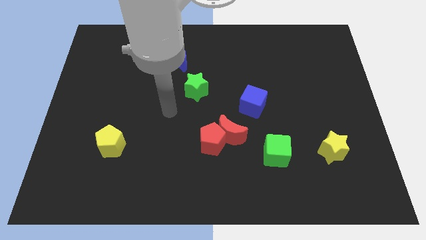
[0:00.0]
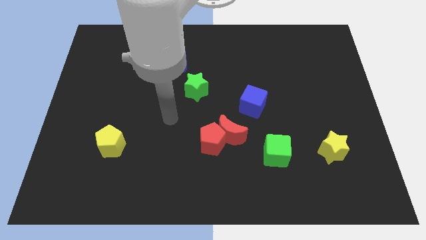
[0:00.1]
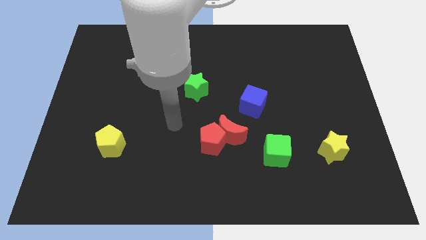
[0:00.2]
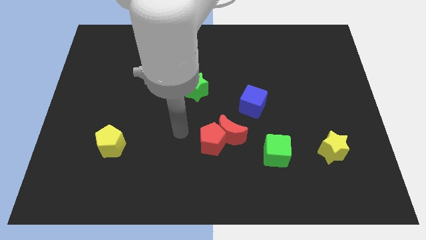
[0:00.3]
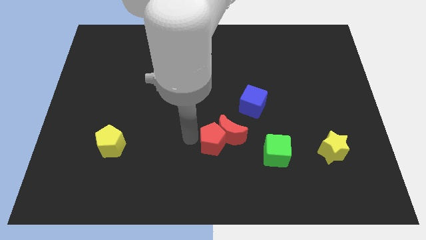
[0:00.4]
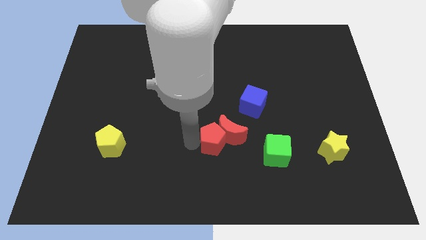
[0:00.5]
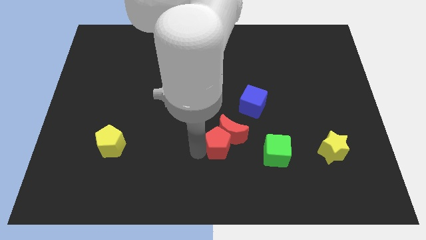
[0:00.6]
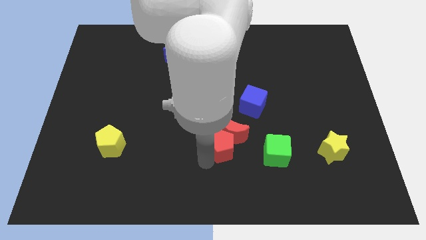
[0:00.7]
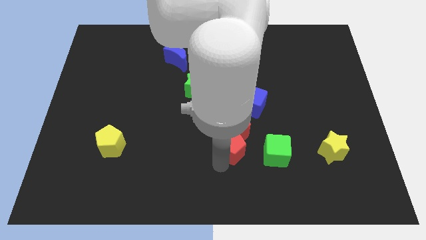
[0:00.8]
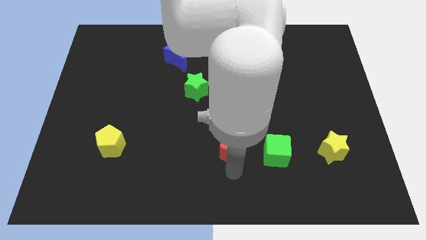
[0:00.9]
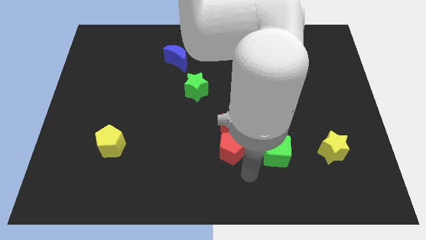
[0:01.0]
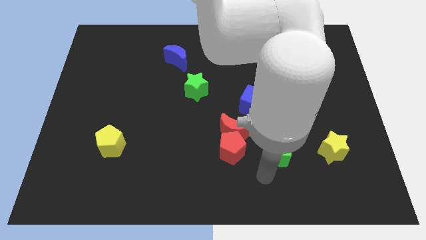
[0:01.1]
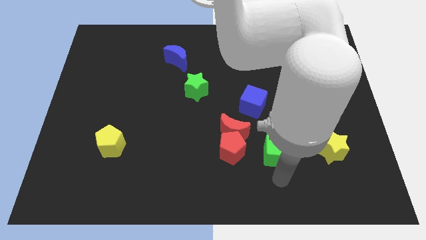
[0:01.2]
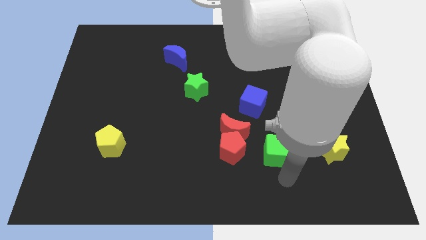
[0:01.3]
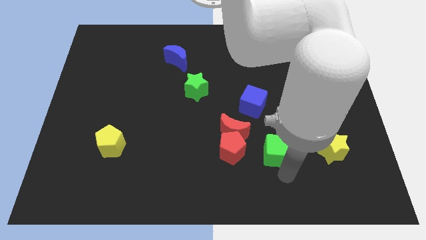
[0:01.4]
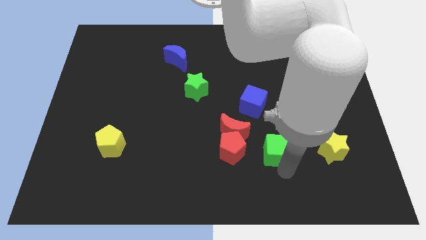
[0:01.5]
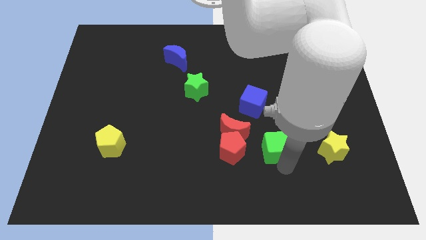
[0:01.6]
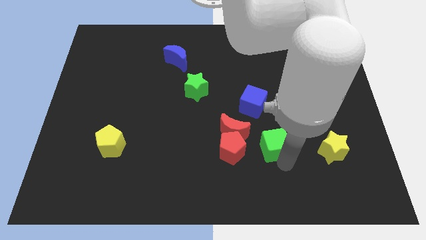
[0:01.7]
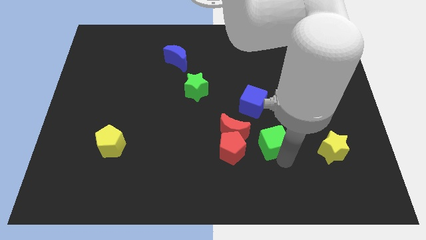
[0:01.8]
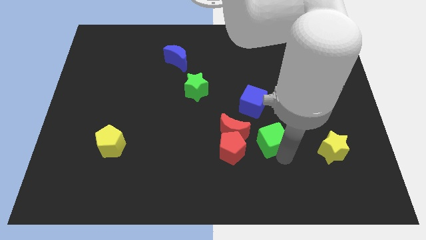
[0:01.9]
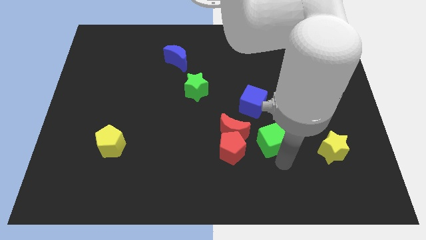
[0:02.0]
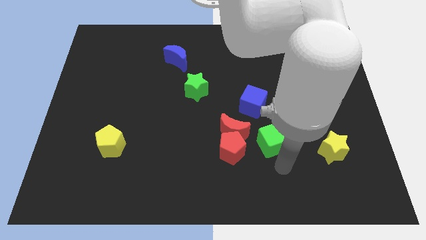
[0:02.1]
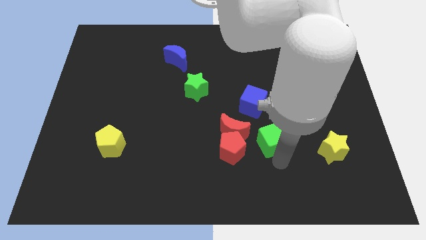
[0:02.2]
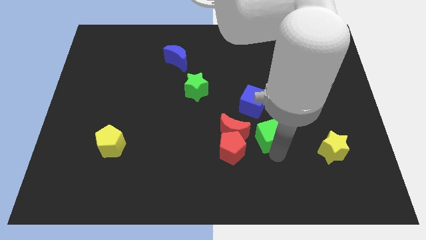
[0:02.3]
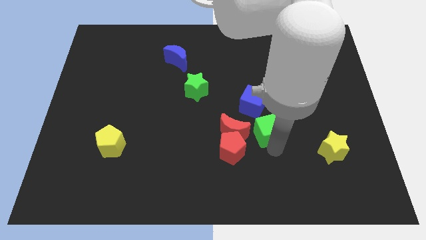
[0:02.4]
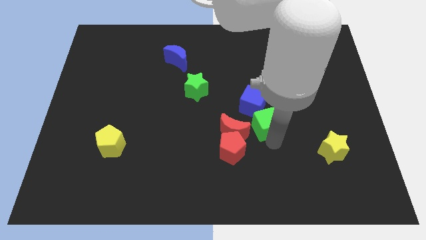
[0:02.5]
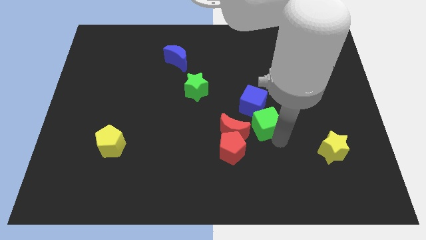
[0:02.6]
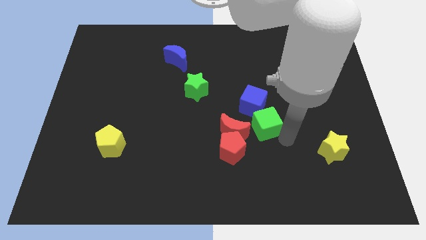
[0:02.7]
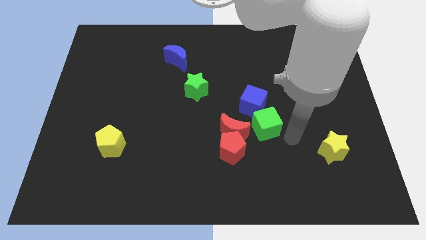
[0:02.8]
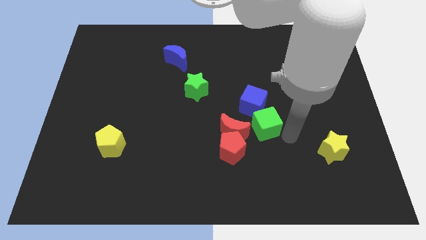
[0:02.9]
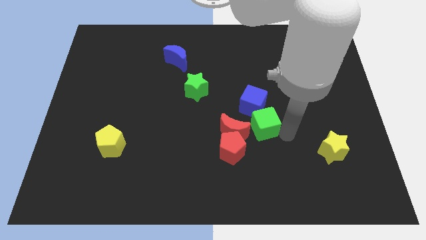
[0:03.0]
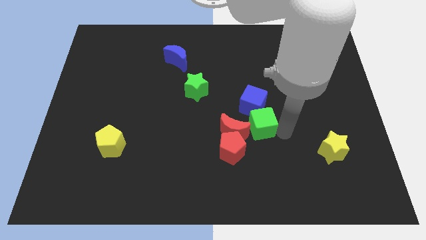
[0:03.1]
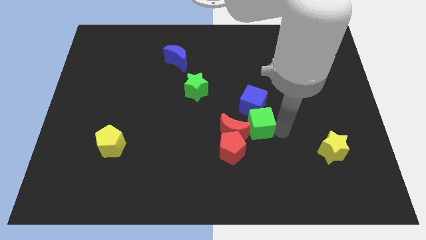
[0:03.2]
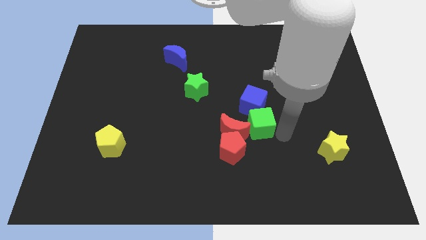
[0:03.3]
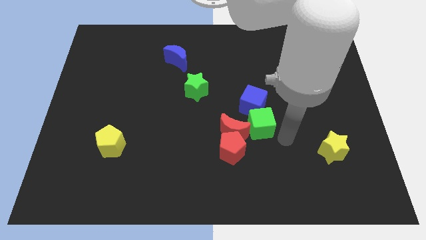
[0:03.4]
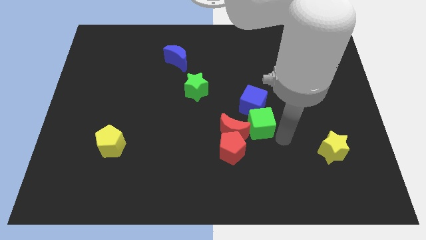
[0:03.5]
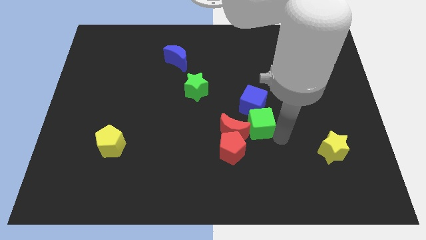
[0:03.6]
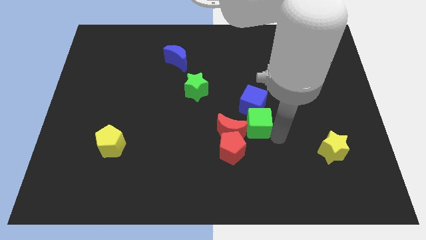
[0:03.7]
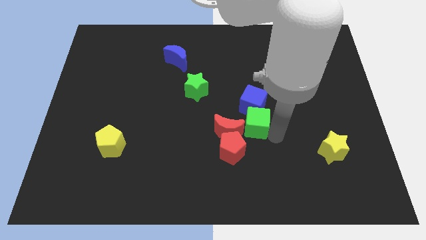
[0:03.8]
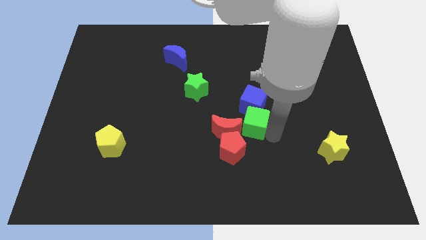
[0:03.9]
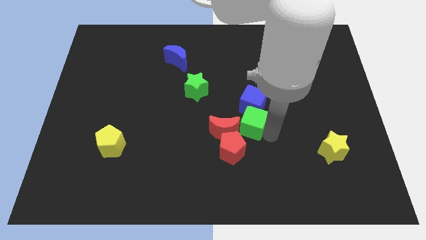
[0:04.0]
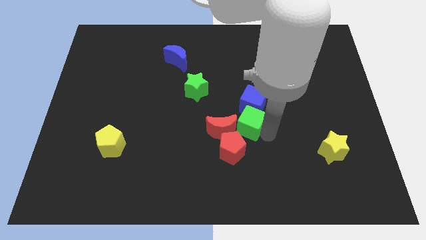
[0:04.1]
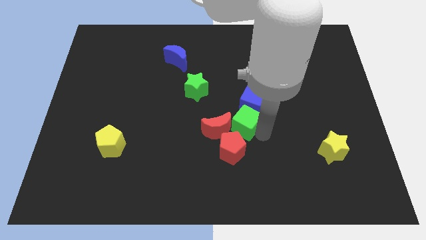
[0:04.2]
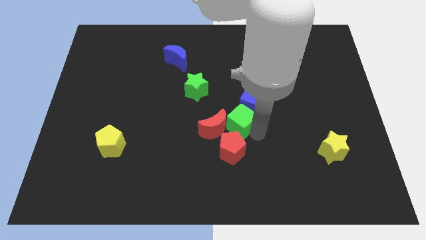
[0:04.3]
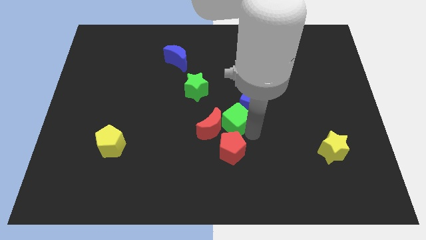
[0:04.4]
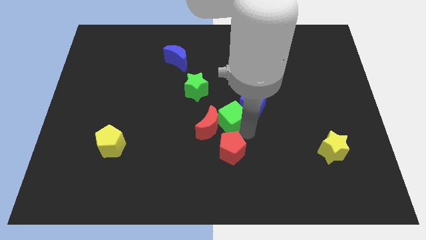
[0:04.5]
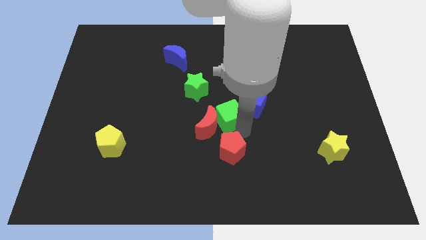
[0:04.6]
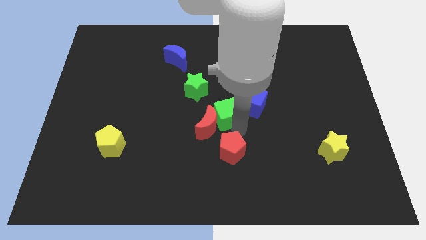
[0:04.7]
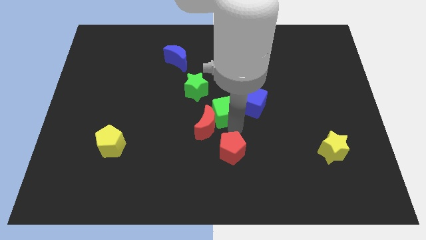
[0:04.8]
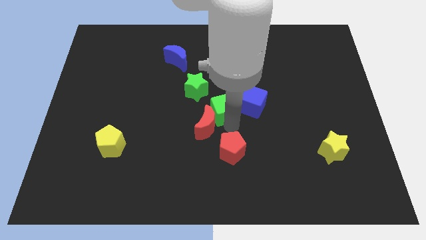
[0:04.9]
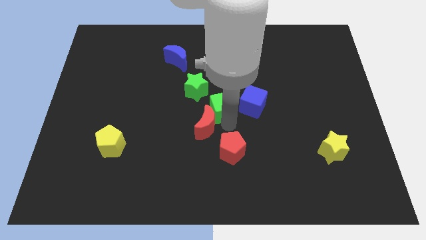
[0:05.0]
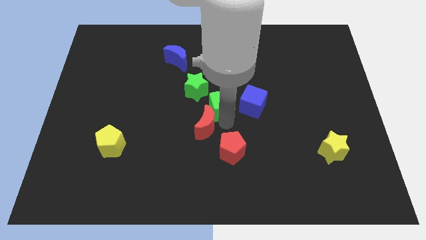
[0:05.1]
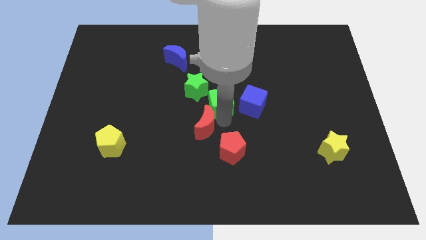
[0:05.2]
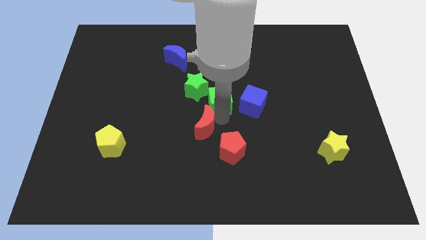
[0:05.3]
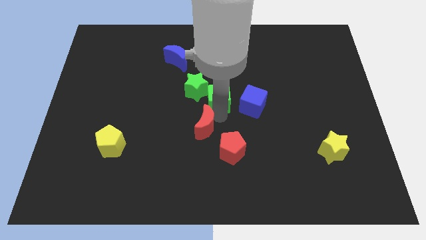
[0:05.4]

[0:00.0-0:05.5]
push the green cube to the top left side of the blue cube

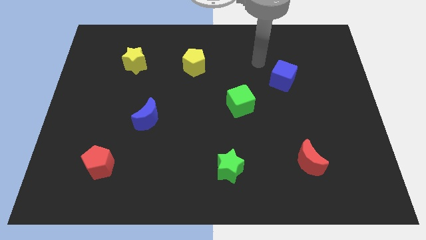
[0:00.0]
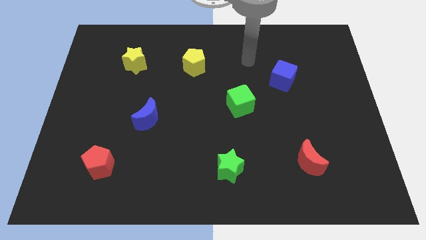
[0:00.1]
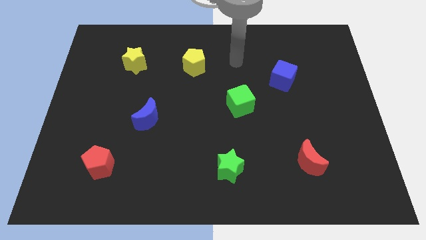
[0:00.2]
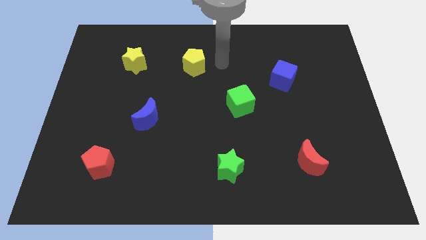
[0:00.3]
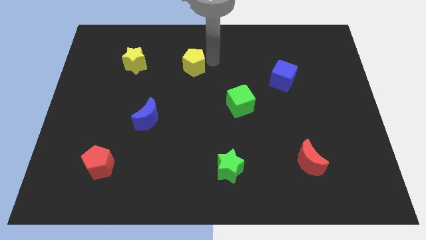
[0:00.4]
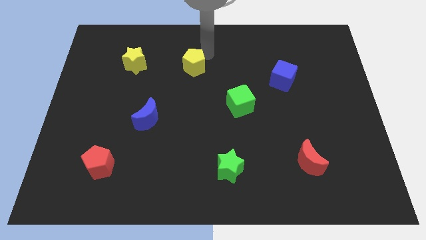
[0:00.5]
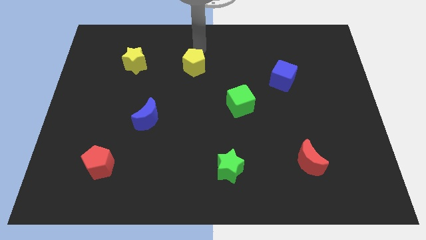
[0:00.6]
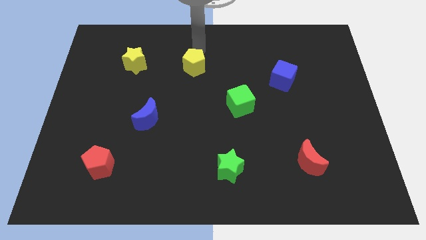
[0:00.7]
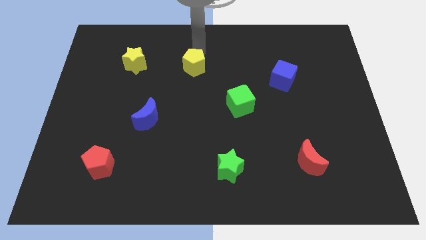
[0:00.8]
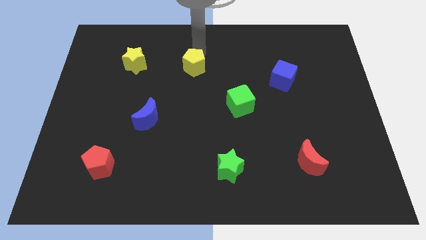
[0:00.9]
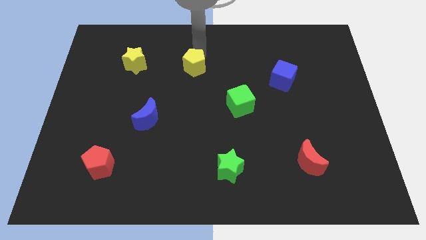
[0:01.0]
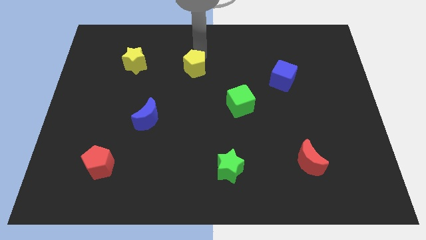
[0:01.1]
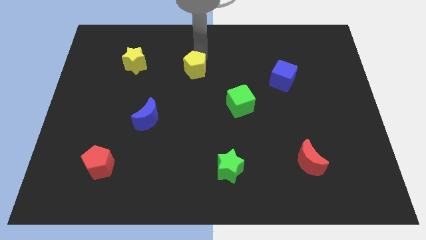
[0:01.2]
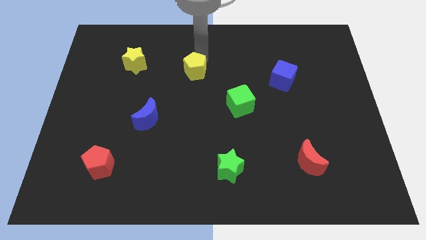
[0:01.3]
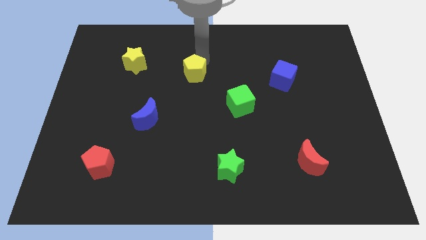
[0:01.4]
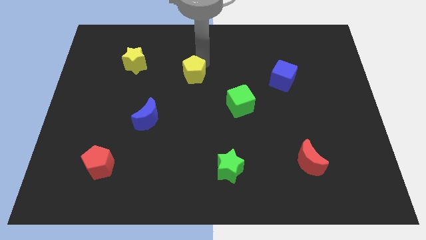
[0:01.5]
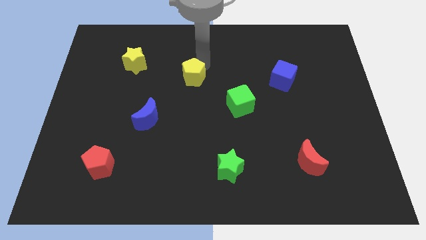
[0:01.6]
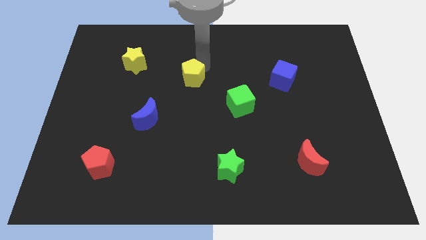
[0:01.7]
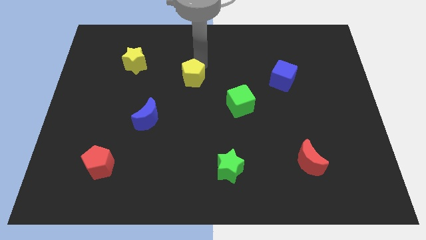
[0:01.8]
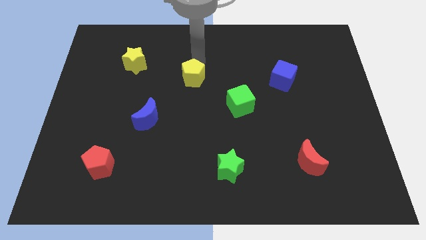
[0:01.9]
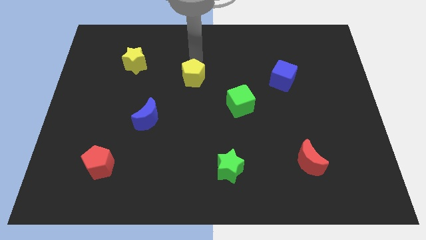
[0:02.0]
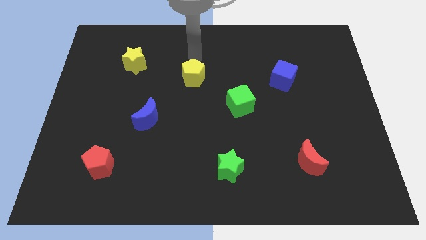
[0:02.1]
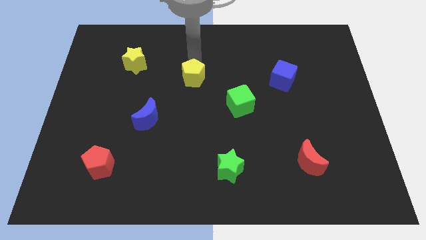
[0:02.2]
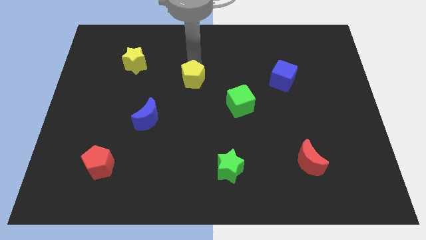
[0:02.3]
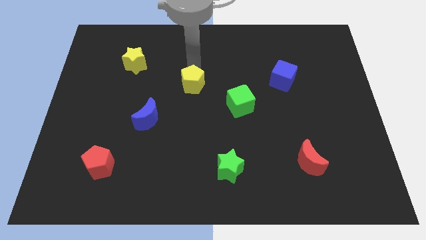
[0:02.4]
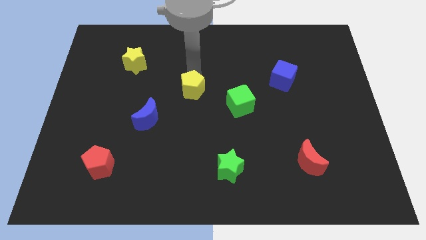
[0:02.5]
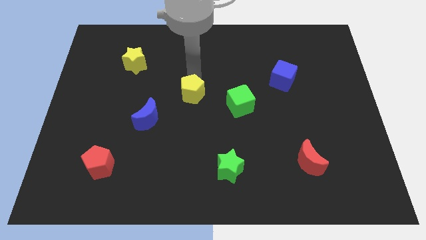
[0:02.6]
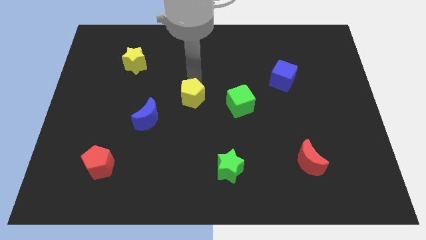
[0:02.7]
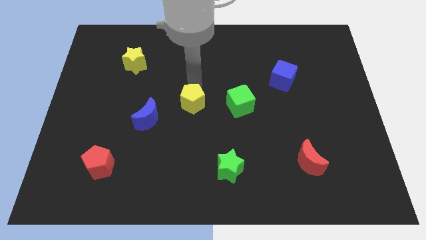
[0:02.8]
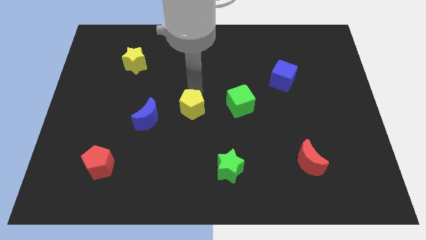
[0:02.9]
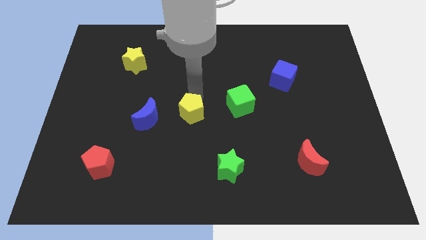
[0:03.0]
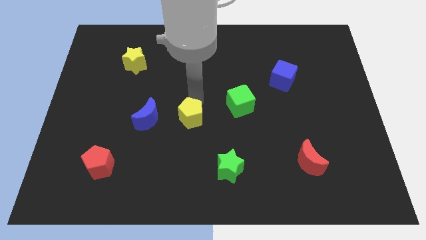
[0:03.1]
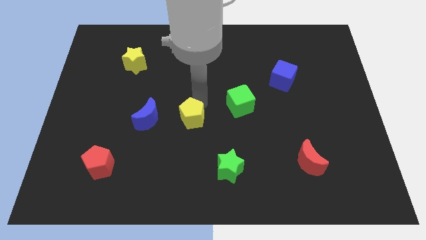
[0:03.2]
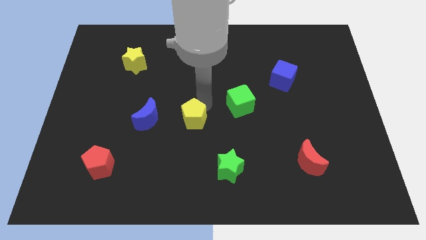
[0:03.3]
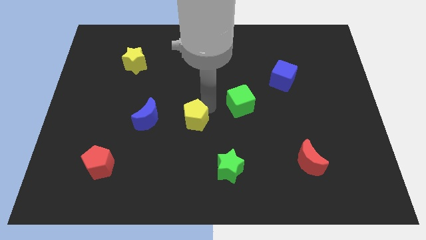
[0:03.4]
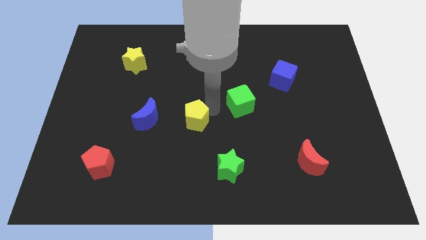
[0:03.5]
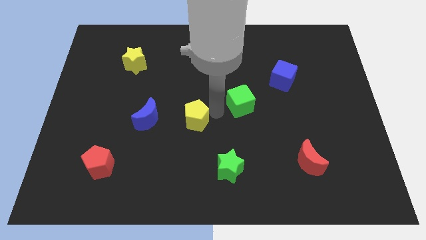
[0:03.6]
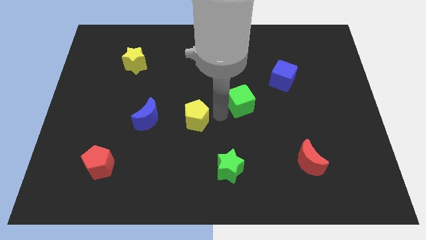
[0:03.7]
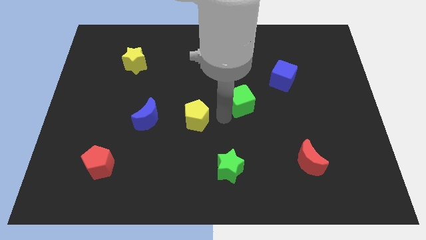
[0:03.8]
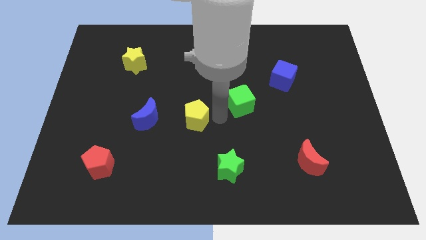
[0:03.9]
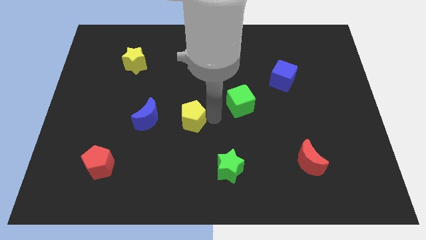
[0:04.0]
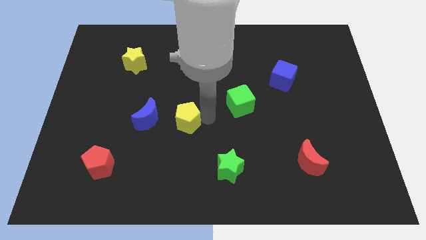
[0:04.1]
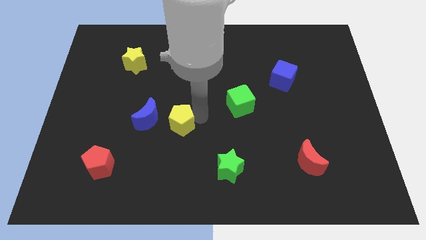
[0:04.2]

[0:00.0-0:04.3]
push the yellow pentagon to the bottom right side of the blue moon
